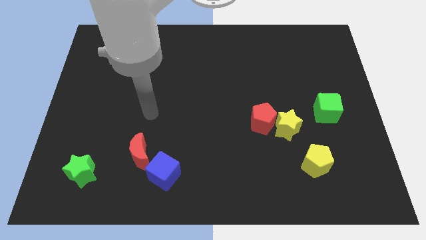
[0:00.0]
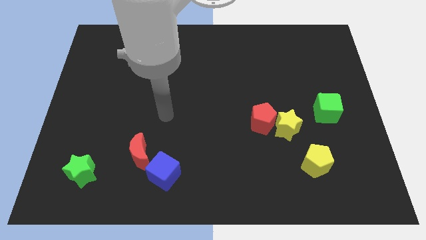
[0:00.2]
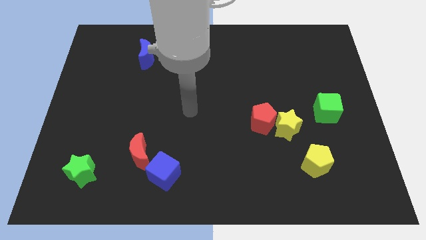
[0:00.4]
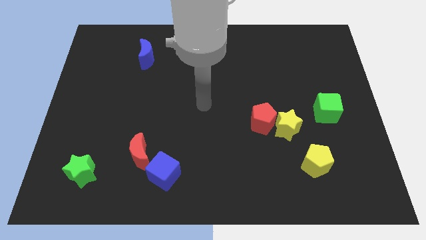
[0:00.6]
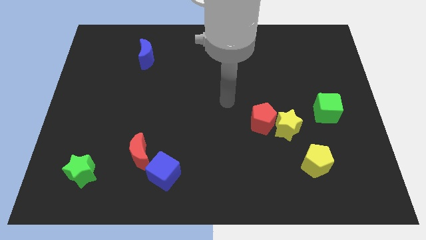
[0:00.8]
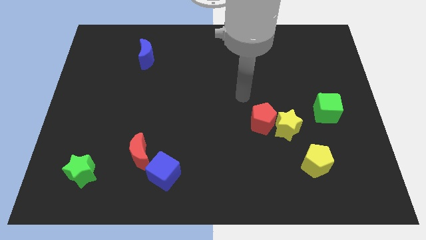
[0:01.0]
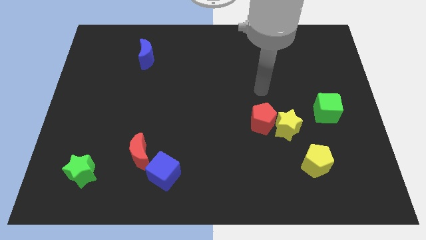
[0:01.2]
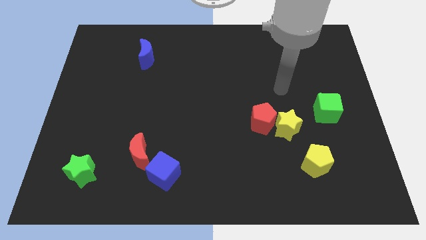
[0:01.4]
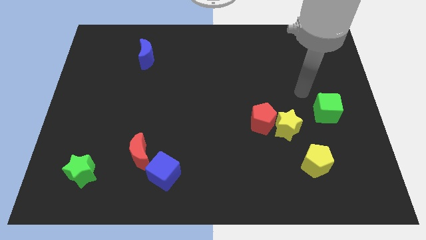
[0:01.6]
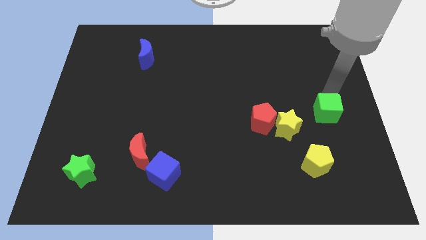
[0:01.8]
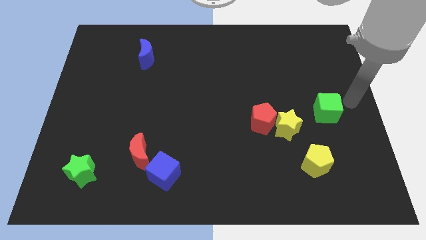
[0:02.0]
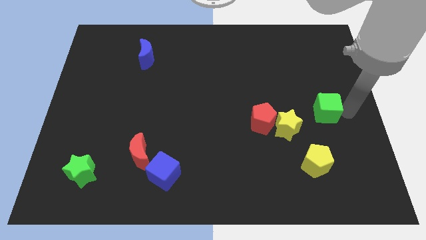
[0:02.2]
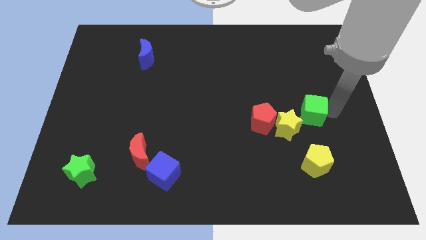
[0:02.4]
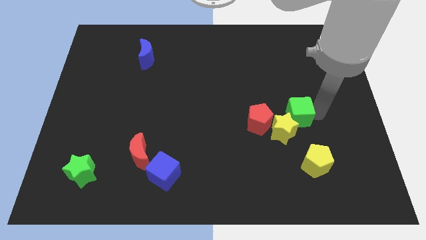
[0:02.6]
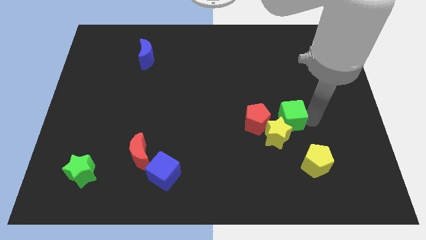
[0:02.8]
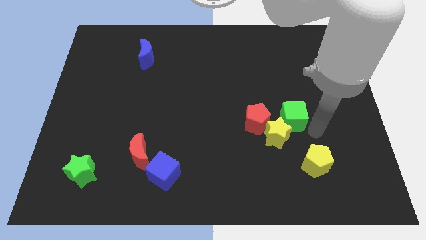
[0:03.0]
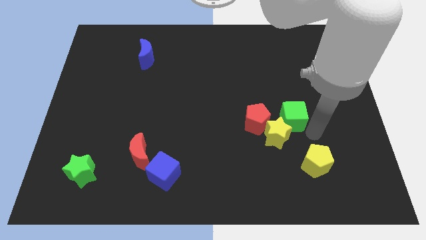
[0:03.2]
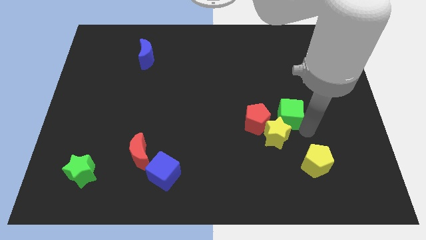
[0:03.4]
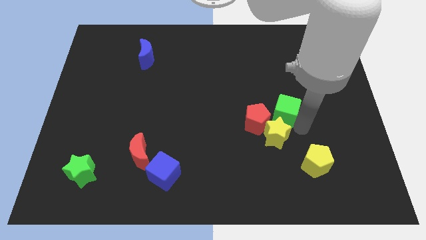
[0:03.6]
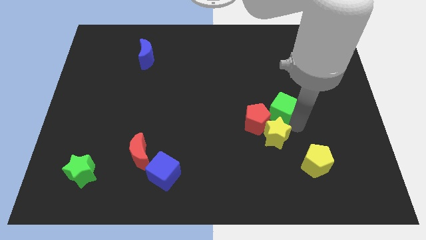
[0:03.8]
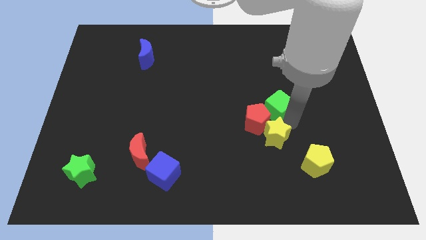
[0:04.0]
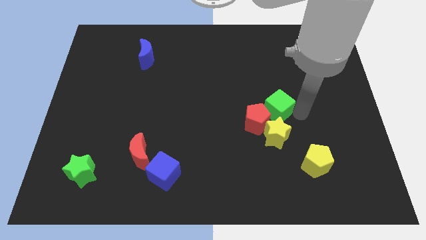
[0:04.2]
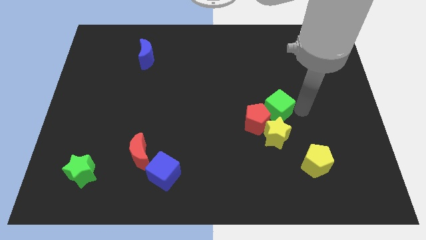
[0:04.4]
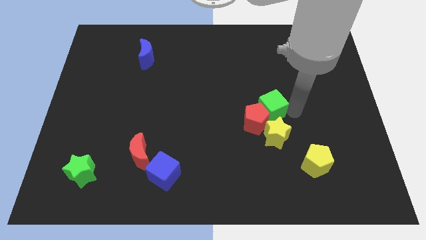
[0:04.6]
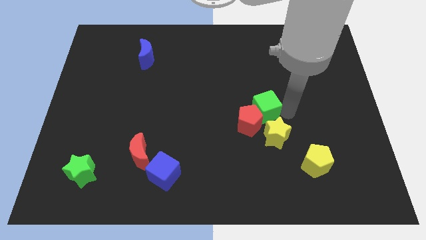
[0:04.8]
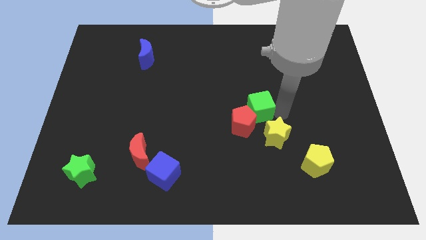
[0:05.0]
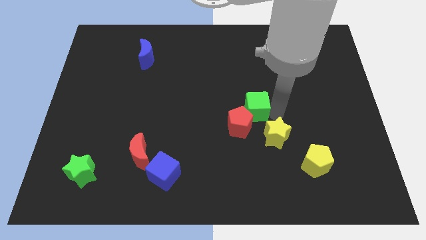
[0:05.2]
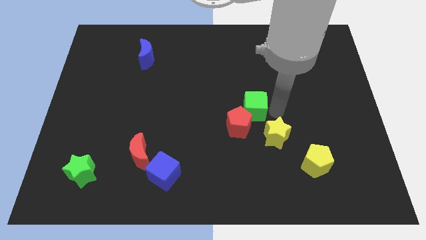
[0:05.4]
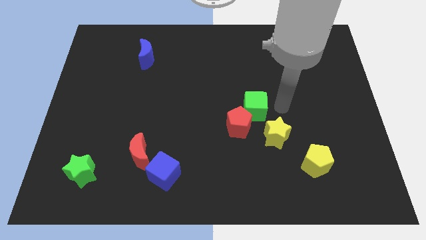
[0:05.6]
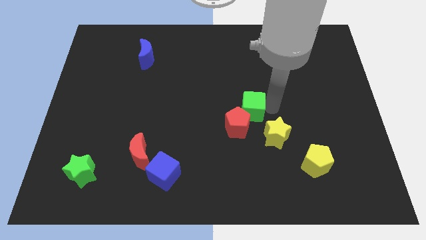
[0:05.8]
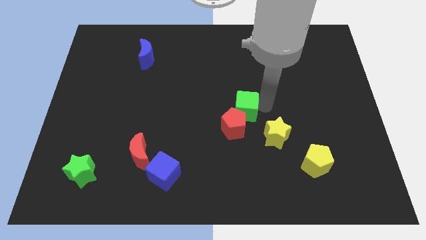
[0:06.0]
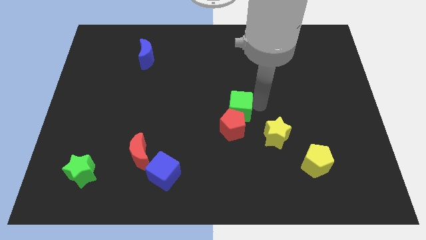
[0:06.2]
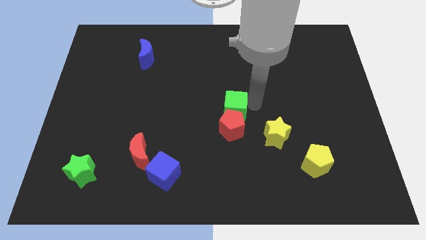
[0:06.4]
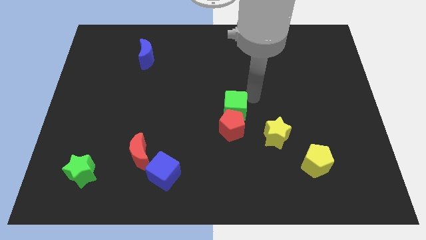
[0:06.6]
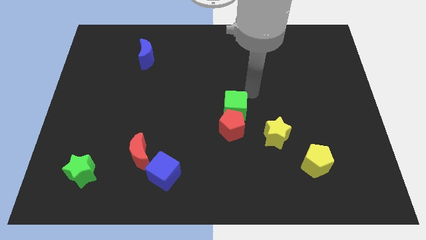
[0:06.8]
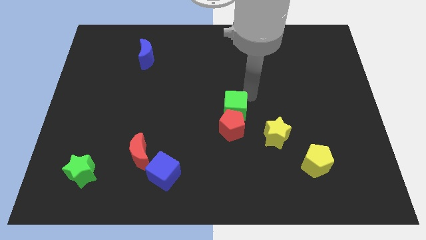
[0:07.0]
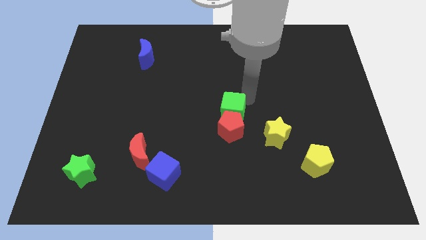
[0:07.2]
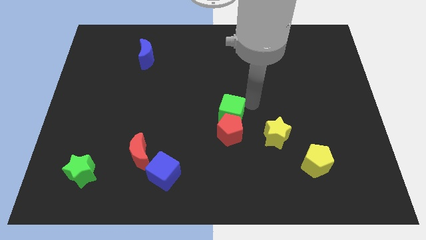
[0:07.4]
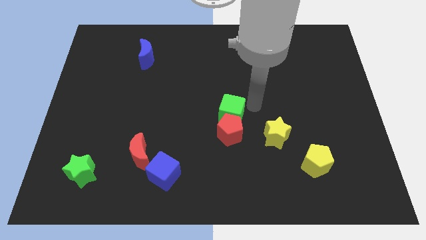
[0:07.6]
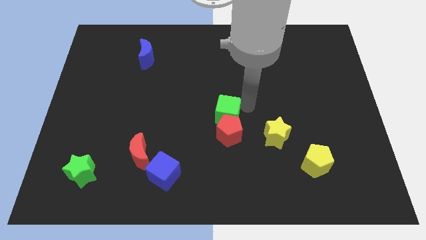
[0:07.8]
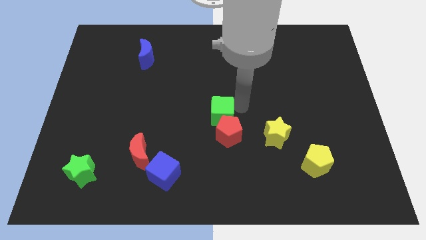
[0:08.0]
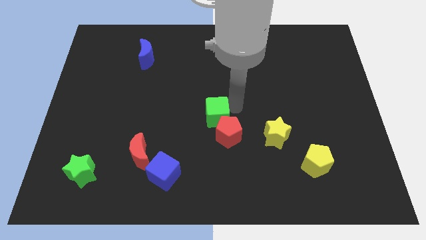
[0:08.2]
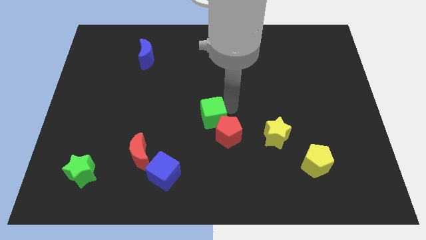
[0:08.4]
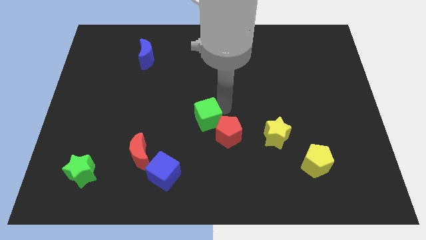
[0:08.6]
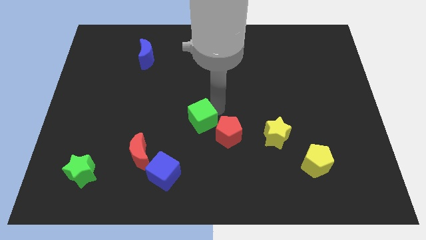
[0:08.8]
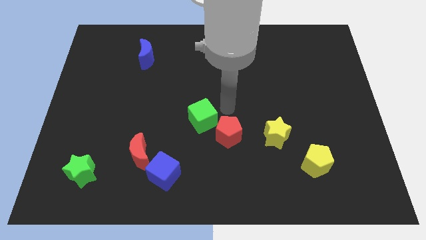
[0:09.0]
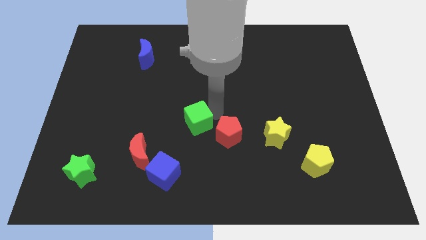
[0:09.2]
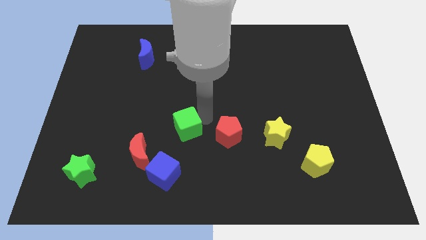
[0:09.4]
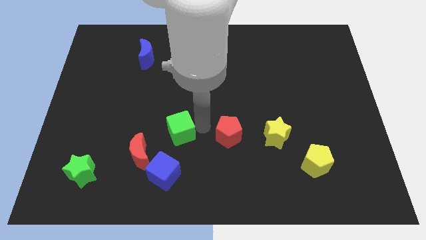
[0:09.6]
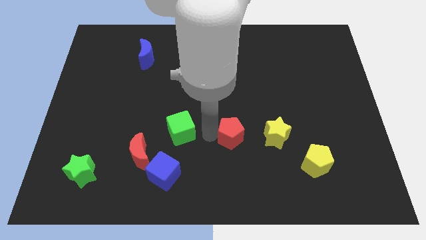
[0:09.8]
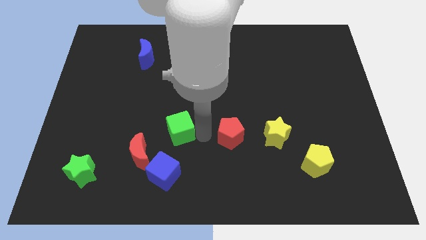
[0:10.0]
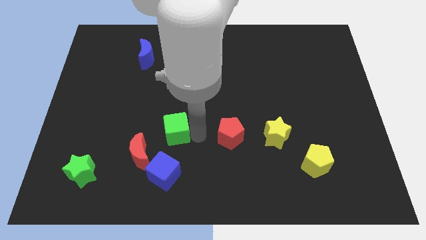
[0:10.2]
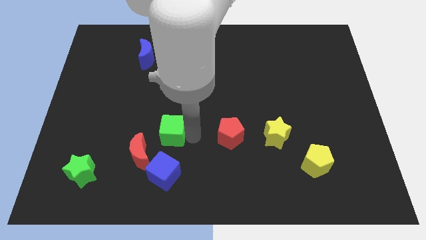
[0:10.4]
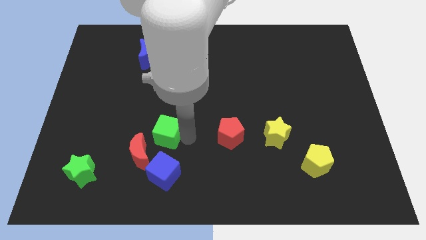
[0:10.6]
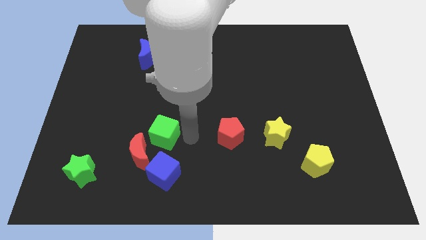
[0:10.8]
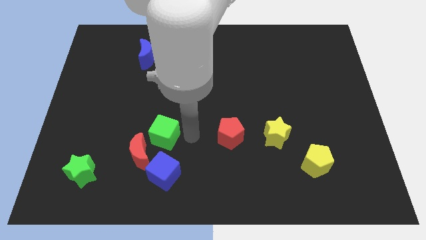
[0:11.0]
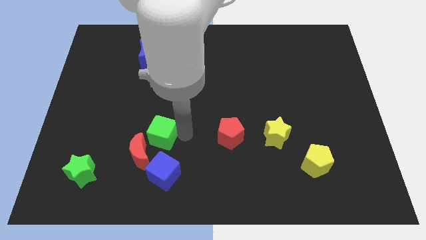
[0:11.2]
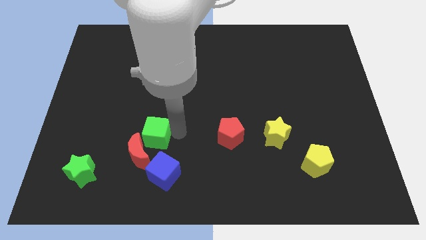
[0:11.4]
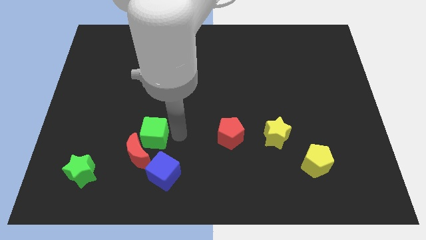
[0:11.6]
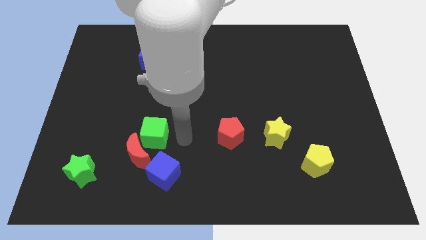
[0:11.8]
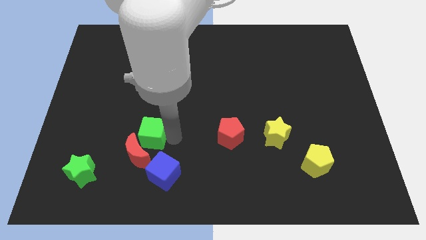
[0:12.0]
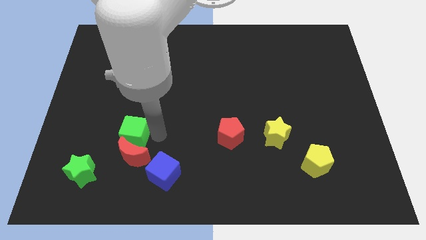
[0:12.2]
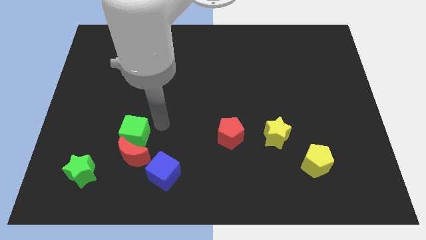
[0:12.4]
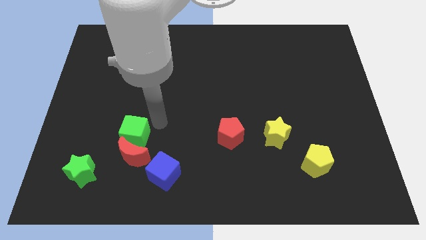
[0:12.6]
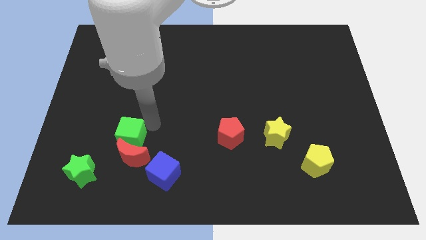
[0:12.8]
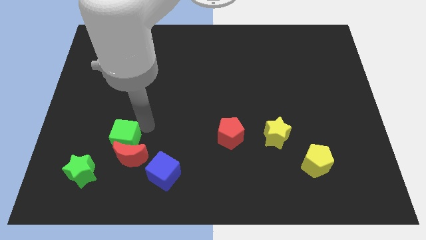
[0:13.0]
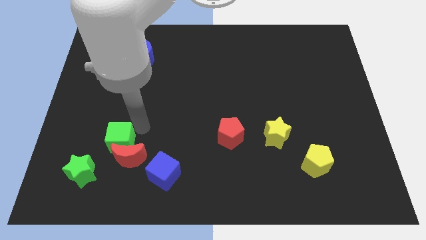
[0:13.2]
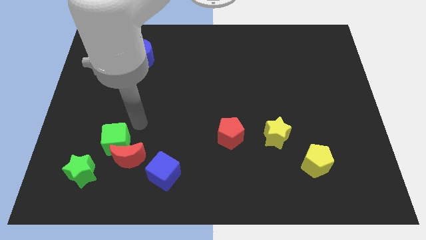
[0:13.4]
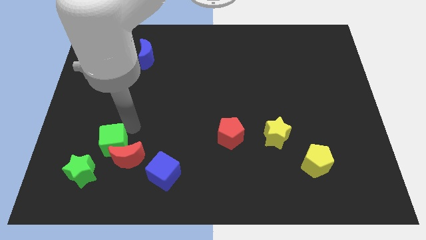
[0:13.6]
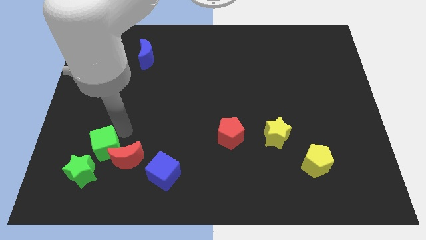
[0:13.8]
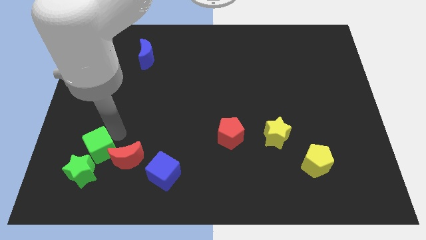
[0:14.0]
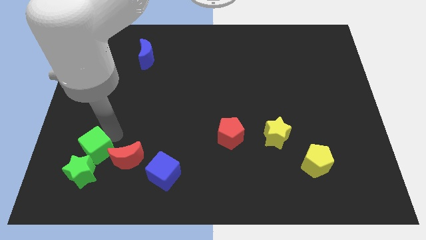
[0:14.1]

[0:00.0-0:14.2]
slide the green cube next to the green star
